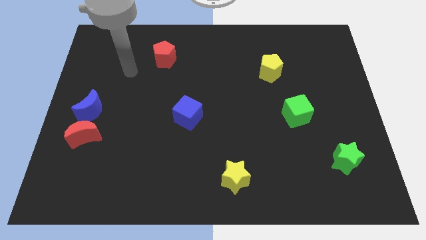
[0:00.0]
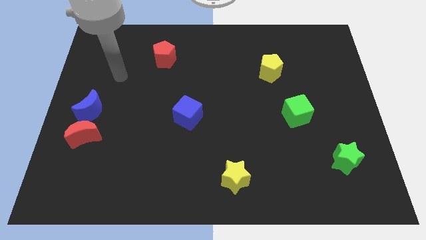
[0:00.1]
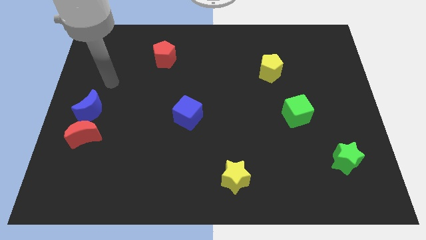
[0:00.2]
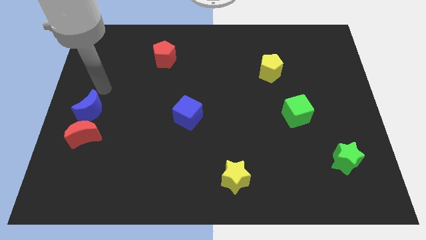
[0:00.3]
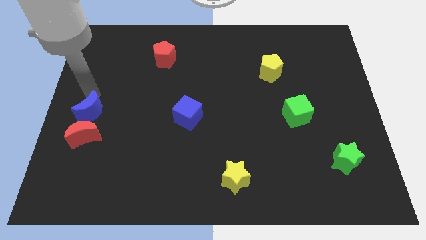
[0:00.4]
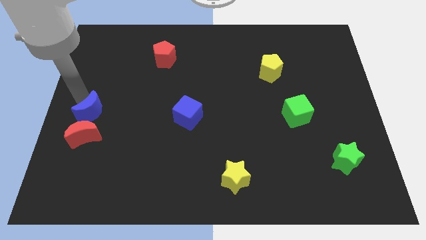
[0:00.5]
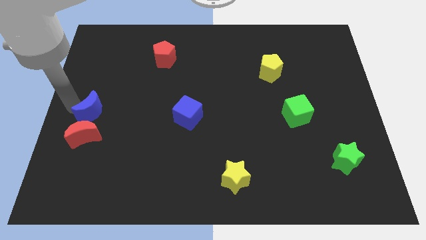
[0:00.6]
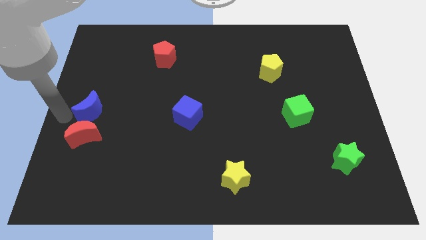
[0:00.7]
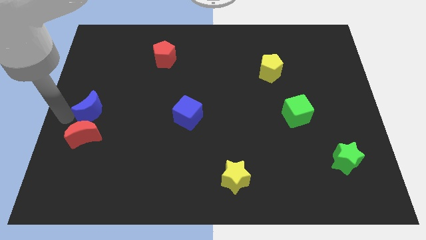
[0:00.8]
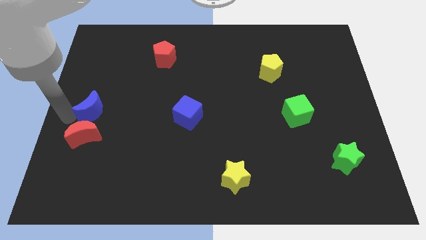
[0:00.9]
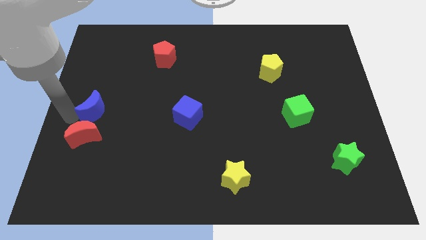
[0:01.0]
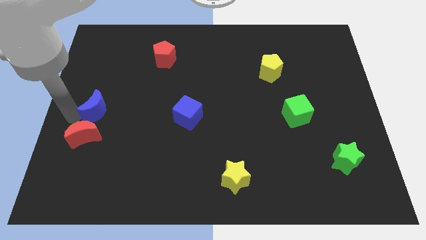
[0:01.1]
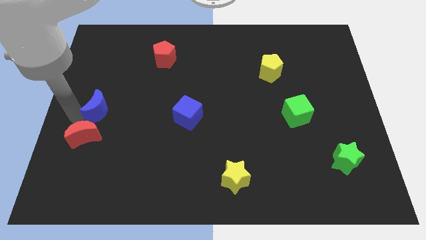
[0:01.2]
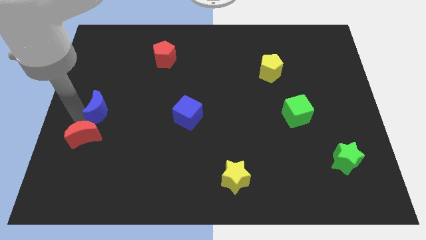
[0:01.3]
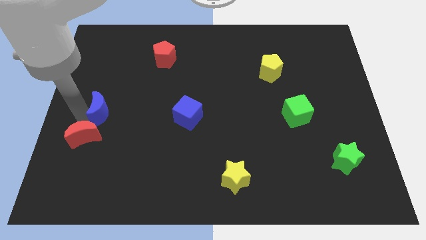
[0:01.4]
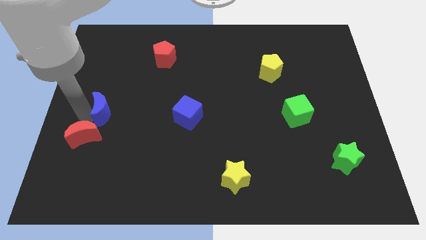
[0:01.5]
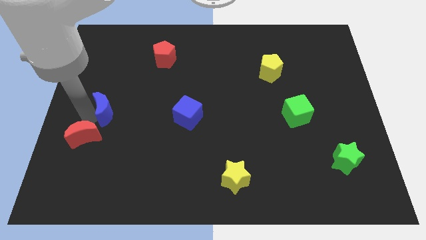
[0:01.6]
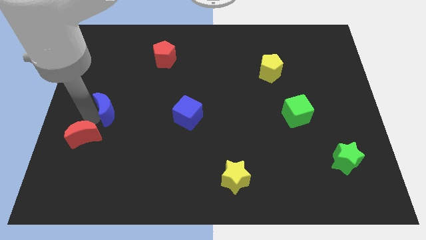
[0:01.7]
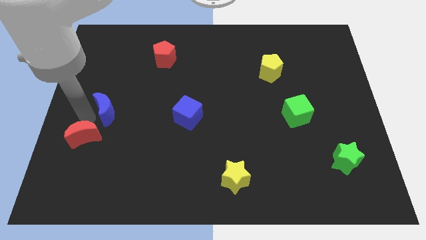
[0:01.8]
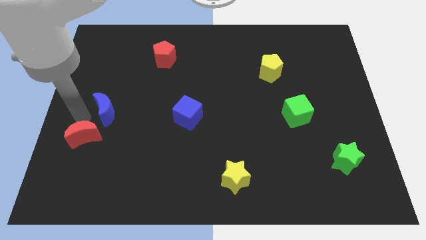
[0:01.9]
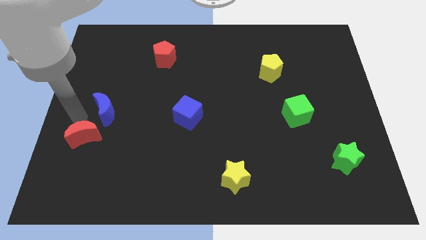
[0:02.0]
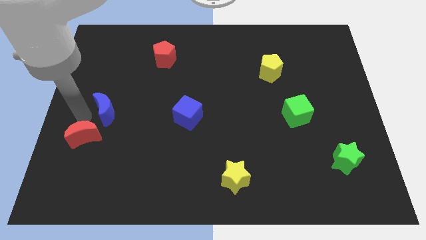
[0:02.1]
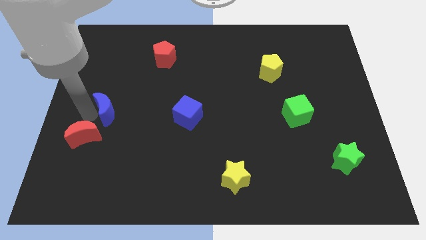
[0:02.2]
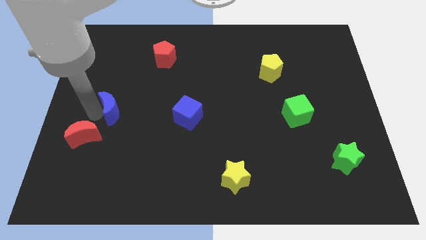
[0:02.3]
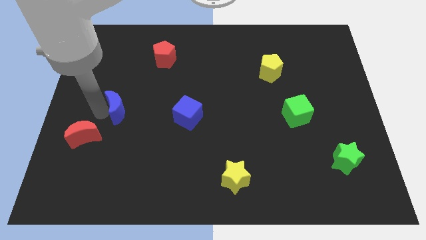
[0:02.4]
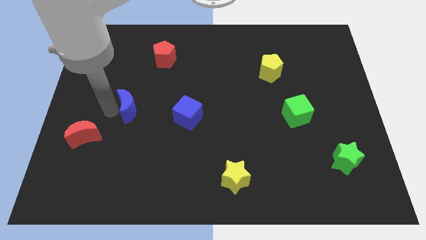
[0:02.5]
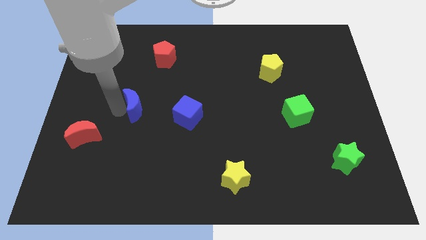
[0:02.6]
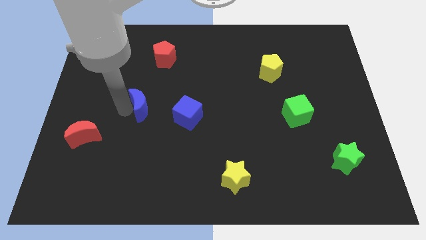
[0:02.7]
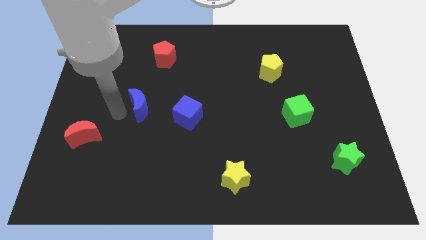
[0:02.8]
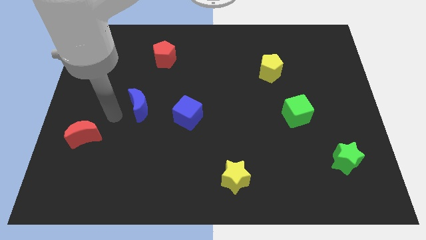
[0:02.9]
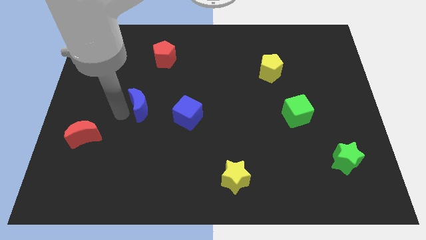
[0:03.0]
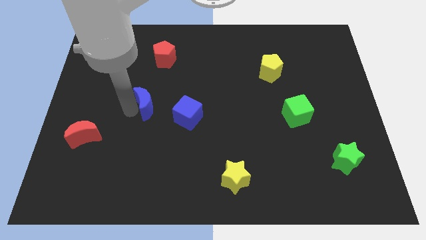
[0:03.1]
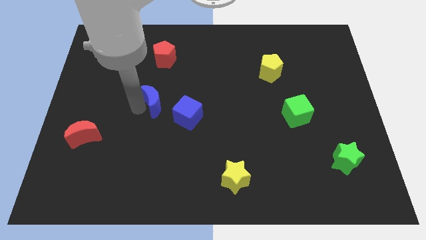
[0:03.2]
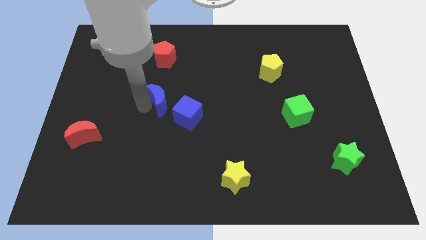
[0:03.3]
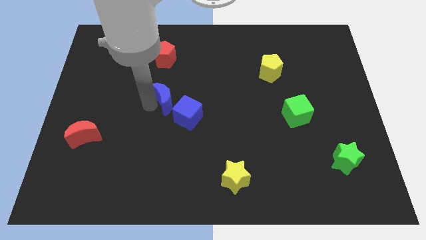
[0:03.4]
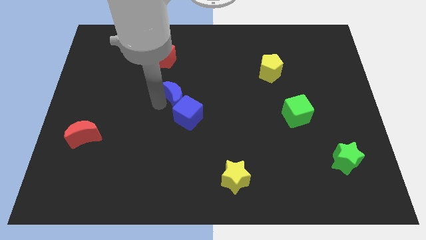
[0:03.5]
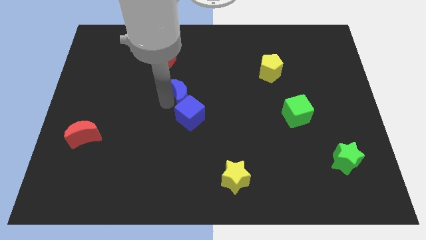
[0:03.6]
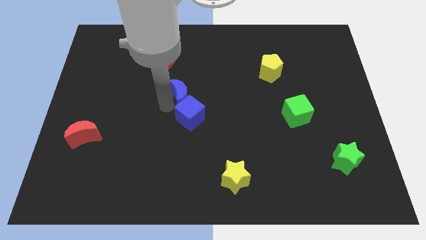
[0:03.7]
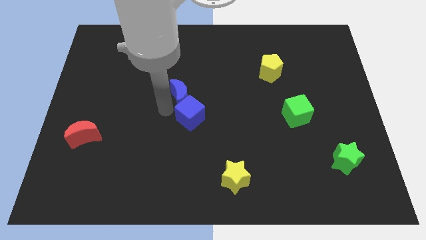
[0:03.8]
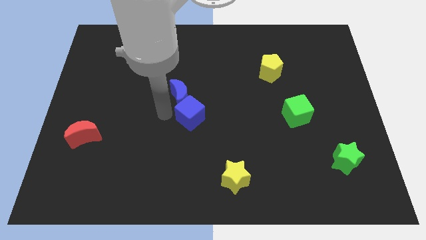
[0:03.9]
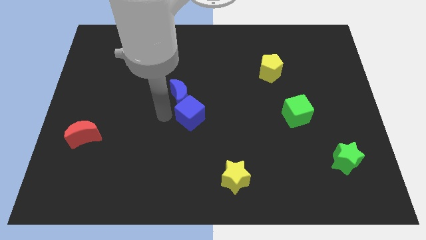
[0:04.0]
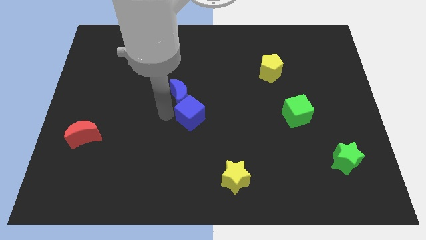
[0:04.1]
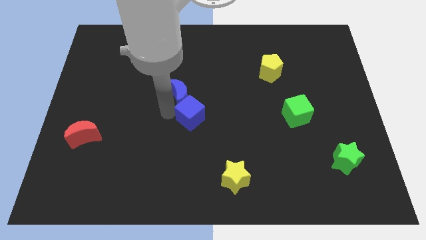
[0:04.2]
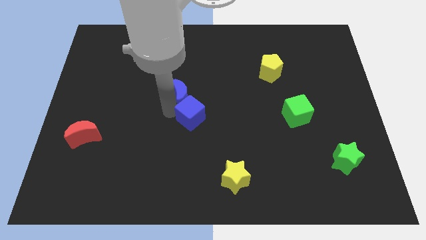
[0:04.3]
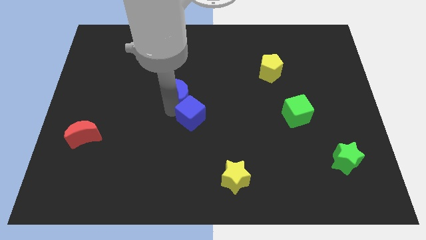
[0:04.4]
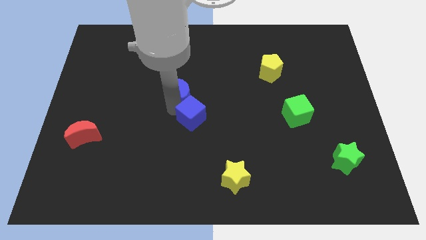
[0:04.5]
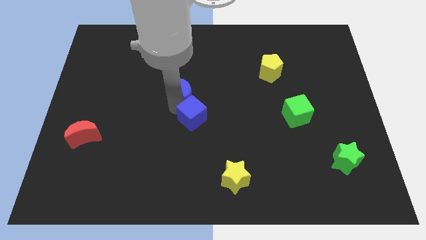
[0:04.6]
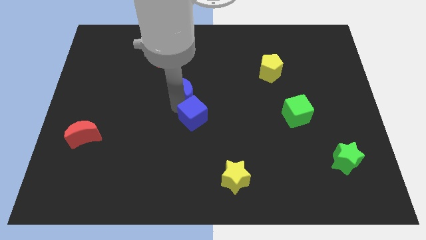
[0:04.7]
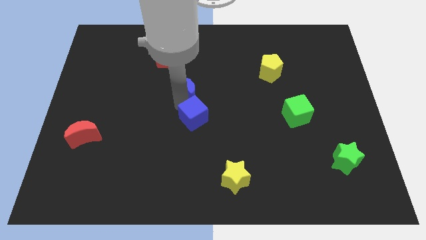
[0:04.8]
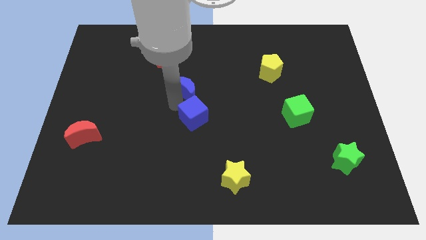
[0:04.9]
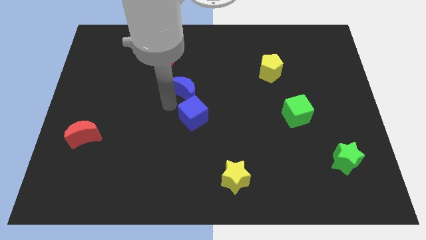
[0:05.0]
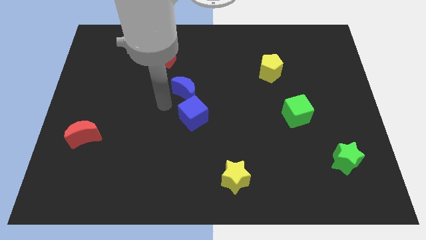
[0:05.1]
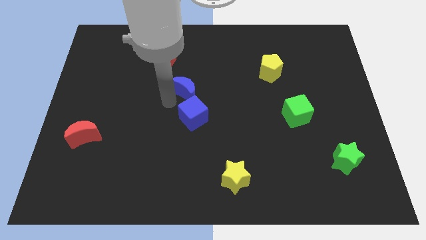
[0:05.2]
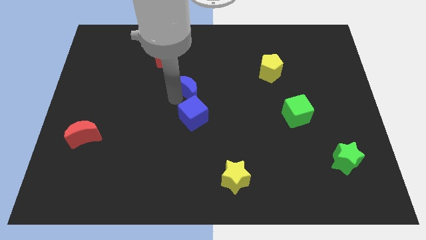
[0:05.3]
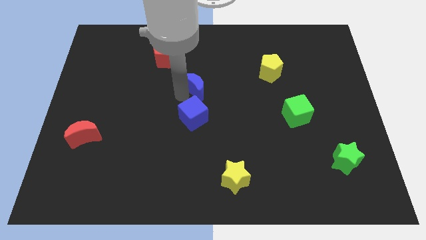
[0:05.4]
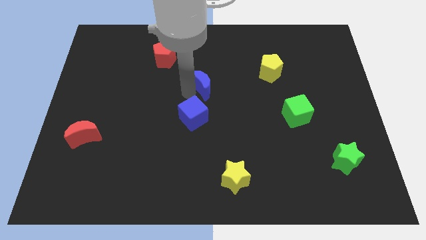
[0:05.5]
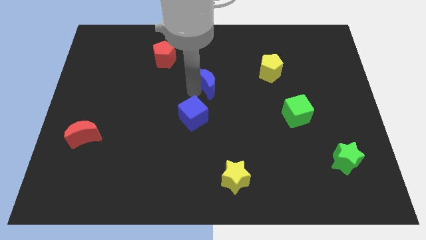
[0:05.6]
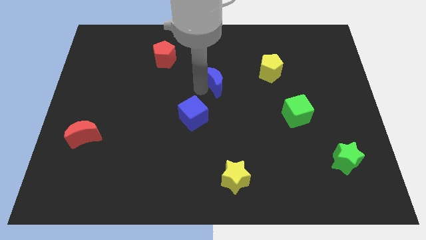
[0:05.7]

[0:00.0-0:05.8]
push the blue moon to the left side of the yellow pentagon

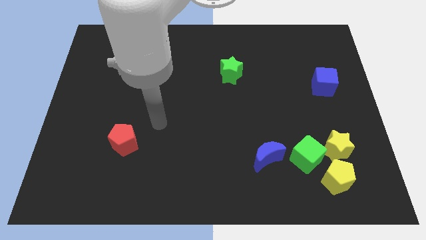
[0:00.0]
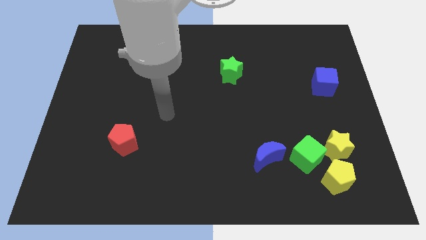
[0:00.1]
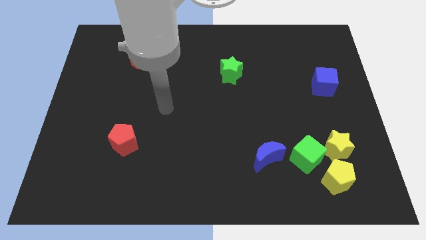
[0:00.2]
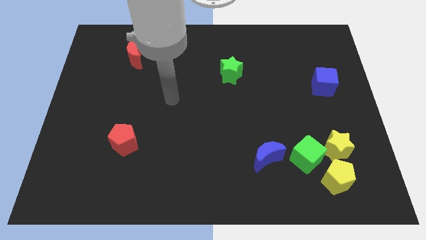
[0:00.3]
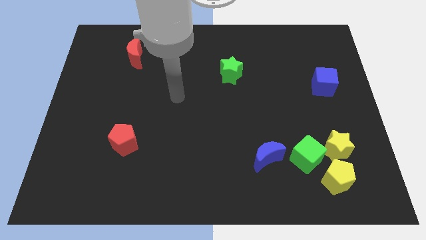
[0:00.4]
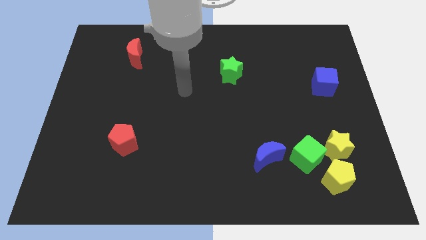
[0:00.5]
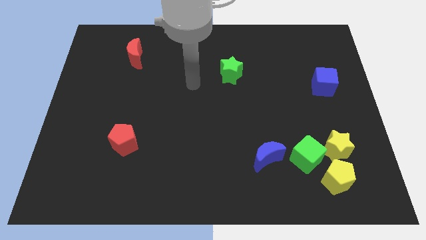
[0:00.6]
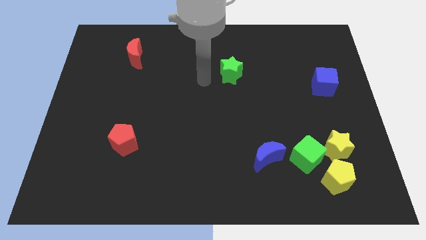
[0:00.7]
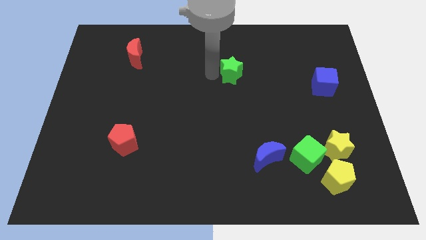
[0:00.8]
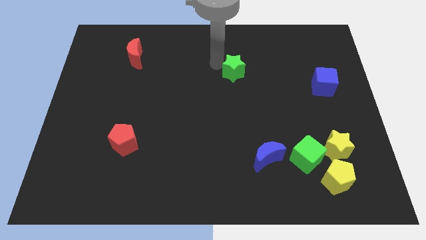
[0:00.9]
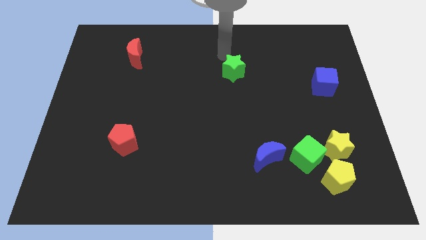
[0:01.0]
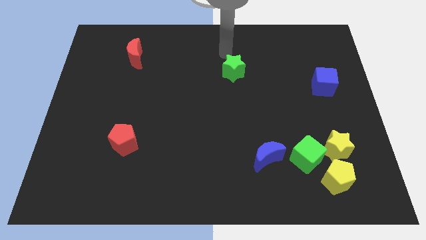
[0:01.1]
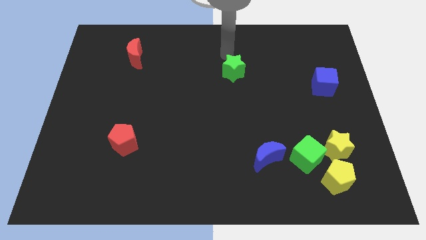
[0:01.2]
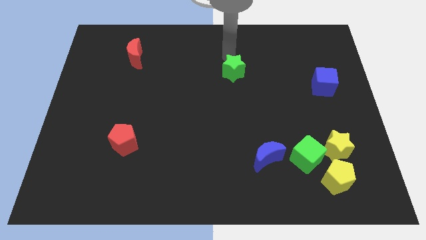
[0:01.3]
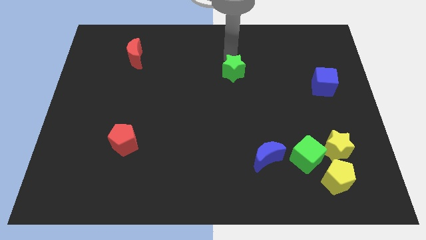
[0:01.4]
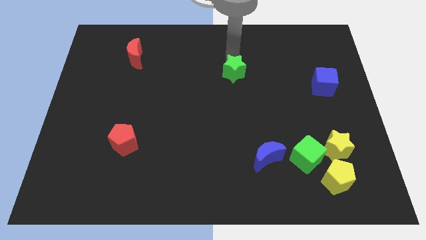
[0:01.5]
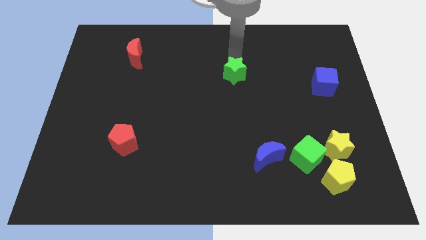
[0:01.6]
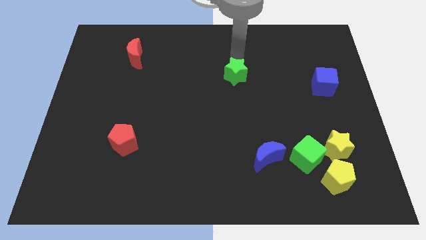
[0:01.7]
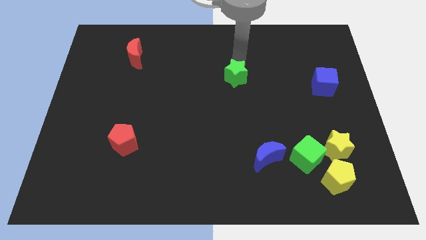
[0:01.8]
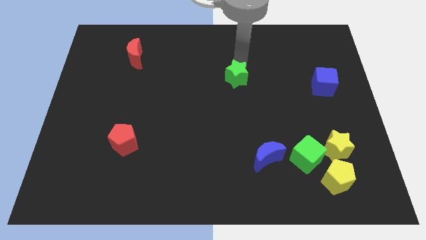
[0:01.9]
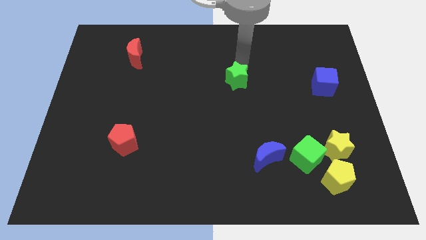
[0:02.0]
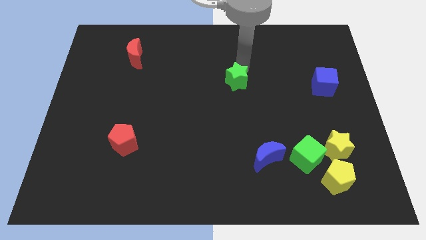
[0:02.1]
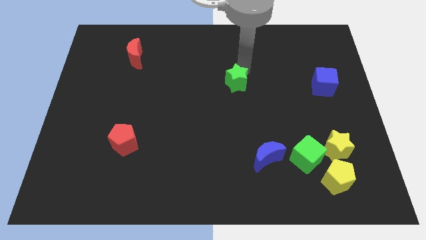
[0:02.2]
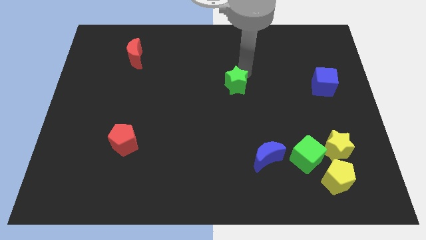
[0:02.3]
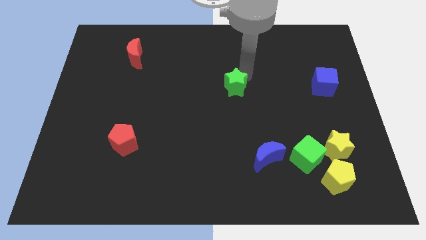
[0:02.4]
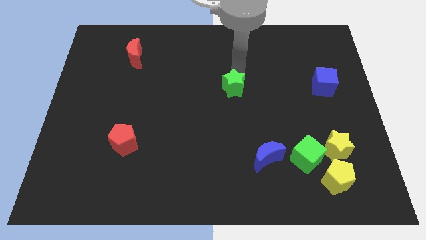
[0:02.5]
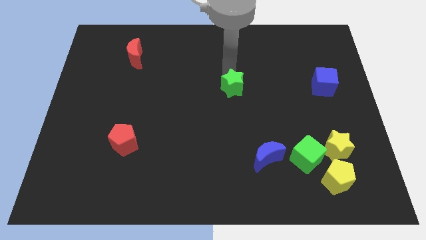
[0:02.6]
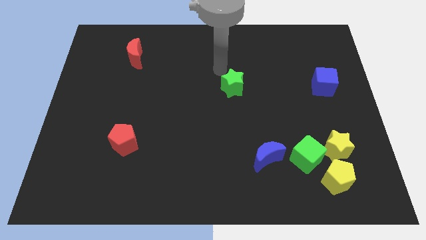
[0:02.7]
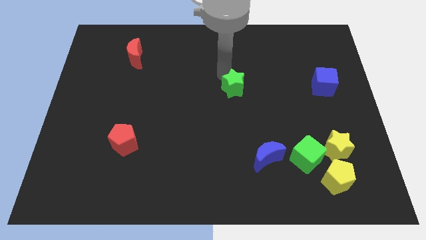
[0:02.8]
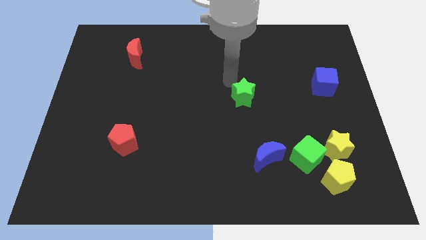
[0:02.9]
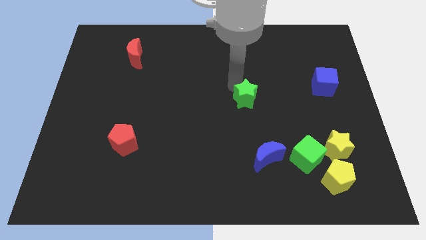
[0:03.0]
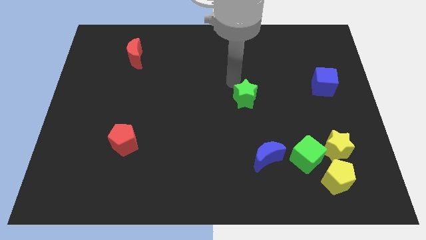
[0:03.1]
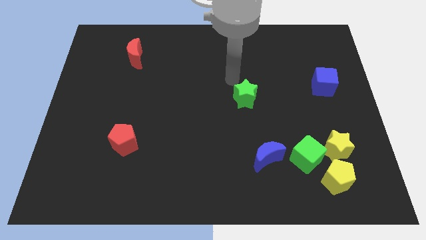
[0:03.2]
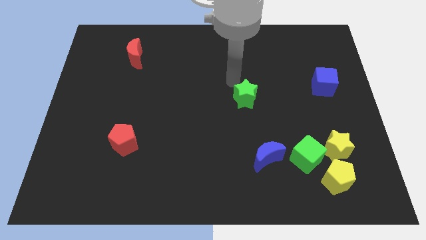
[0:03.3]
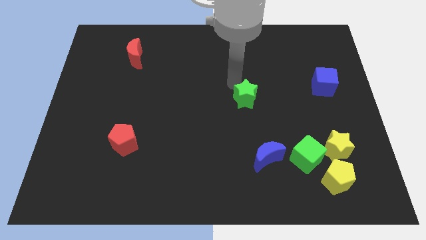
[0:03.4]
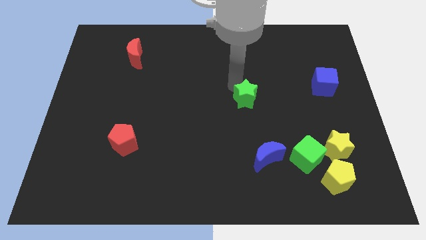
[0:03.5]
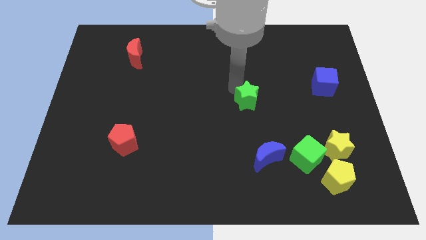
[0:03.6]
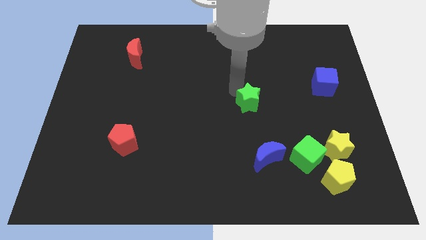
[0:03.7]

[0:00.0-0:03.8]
move the green star to the top side of the blue moon
